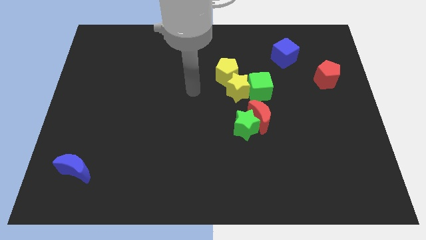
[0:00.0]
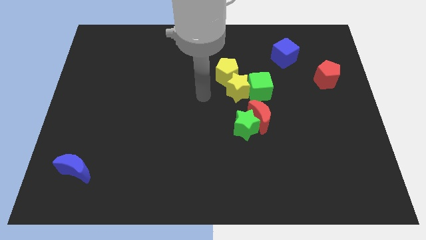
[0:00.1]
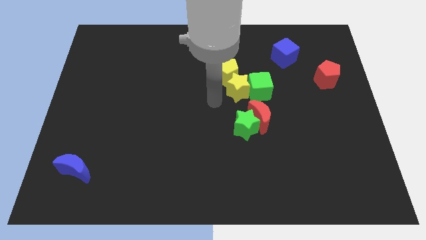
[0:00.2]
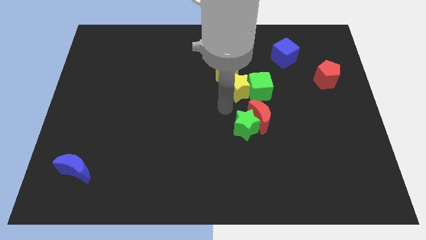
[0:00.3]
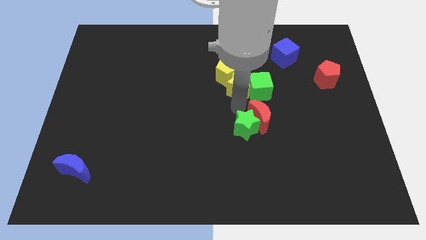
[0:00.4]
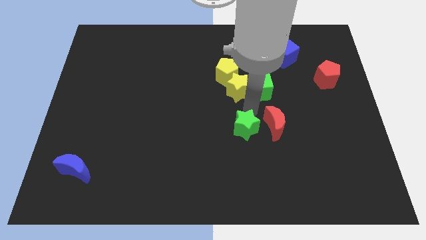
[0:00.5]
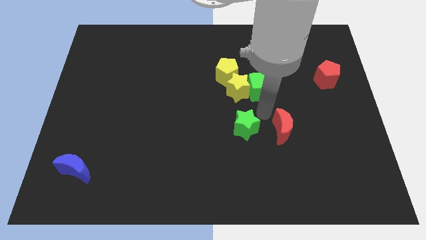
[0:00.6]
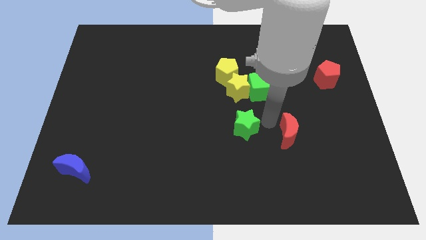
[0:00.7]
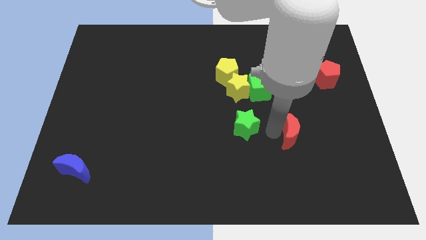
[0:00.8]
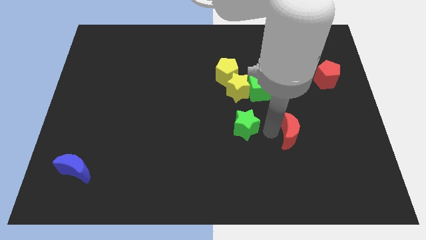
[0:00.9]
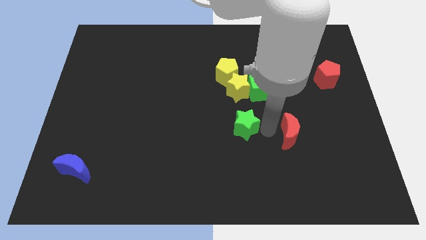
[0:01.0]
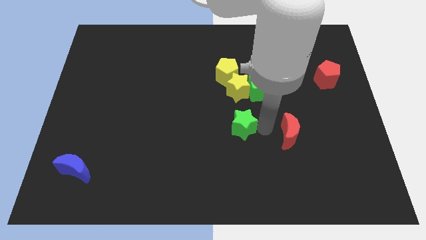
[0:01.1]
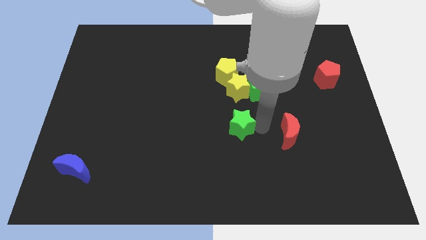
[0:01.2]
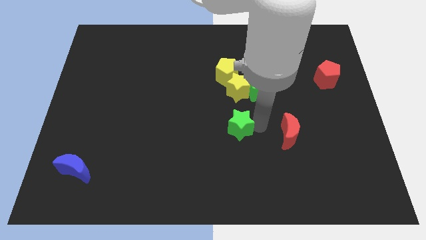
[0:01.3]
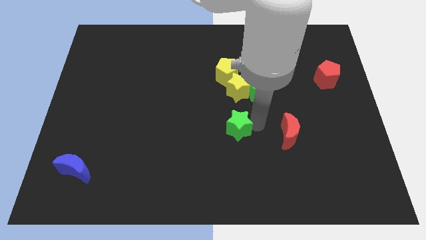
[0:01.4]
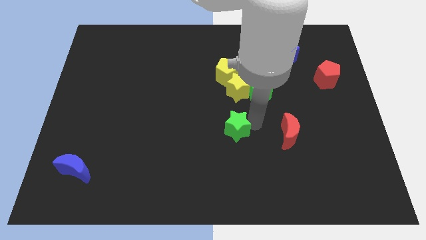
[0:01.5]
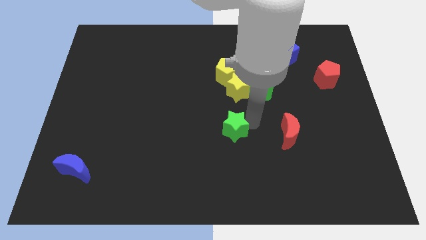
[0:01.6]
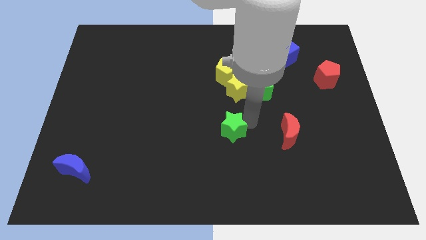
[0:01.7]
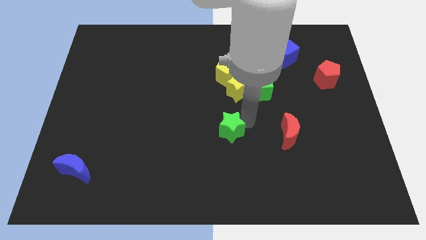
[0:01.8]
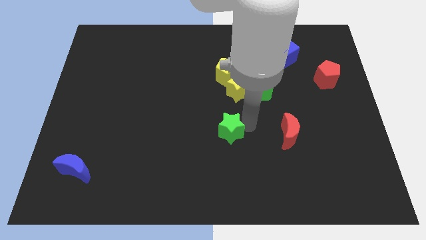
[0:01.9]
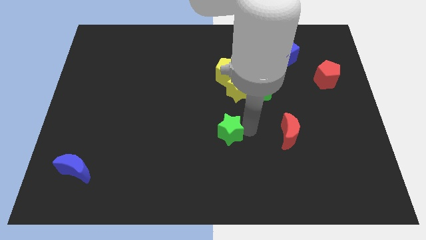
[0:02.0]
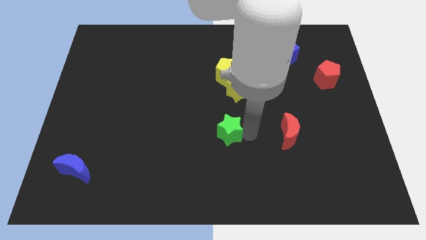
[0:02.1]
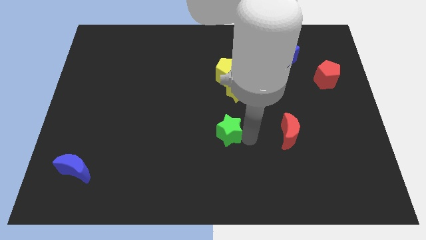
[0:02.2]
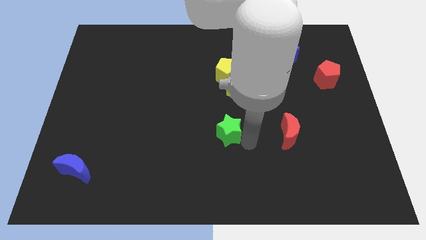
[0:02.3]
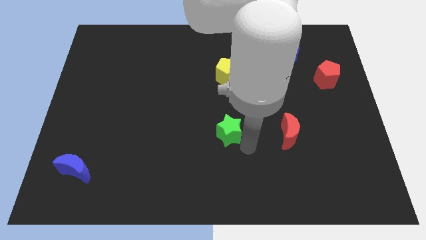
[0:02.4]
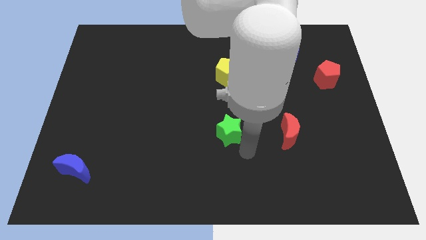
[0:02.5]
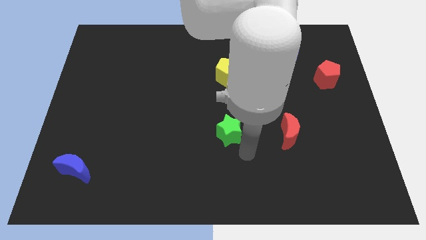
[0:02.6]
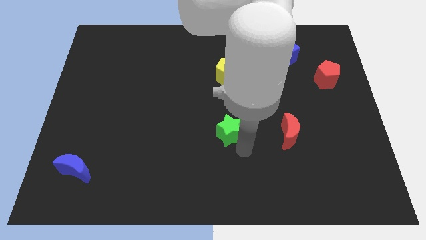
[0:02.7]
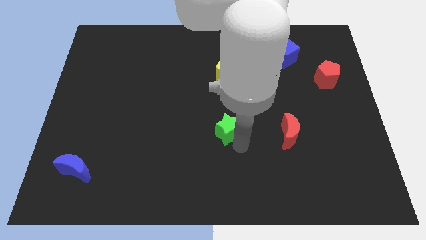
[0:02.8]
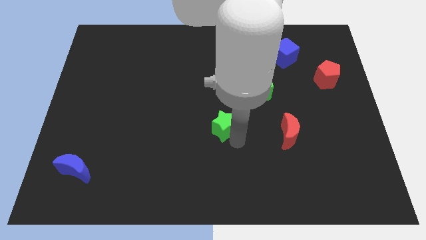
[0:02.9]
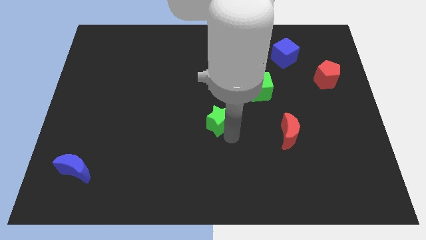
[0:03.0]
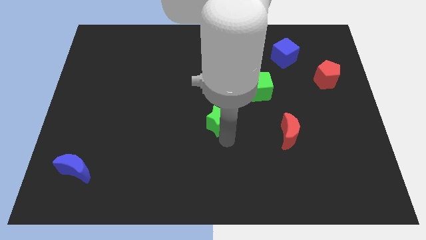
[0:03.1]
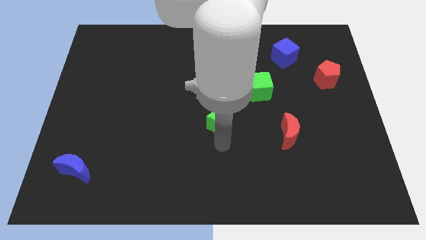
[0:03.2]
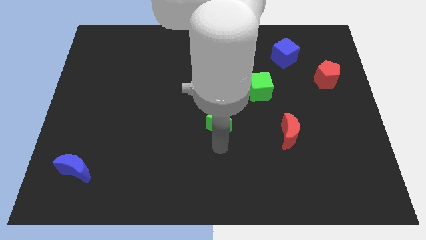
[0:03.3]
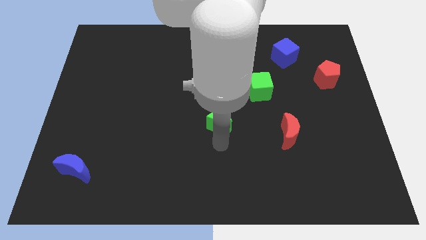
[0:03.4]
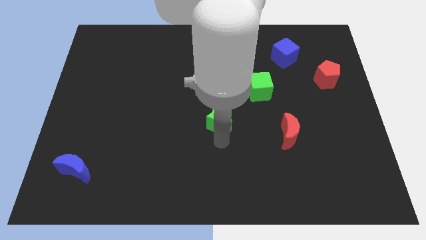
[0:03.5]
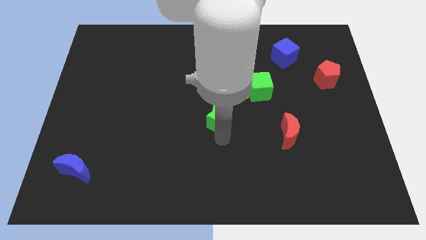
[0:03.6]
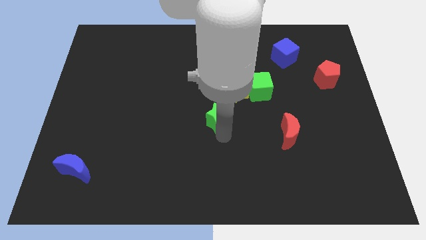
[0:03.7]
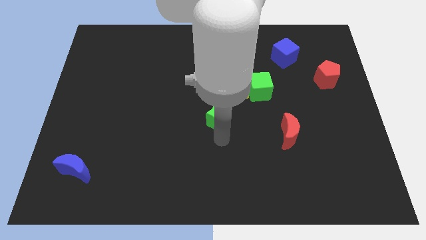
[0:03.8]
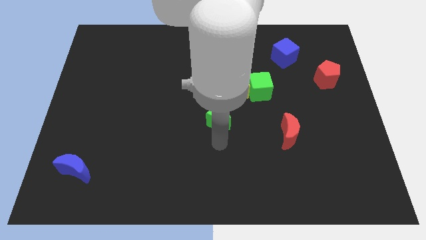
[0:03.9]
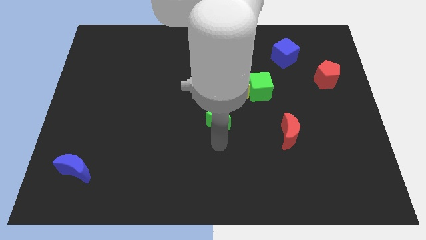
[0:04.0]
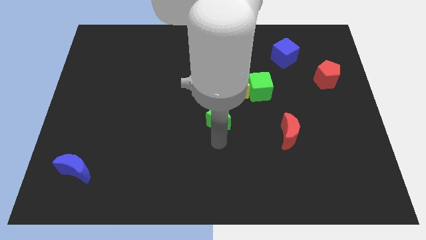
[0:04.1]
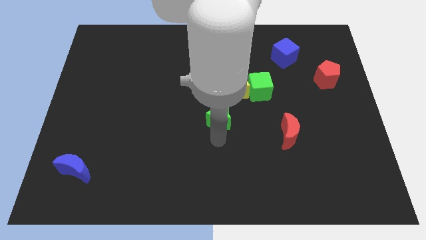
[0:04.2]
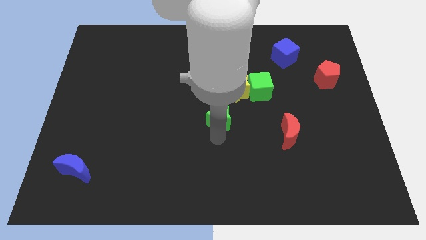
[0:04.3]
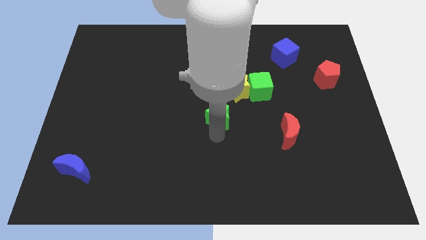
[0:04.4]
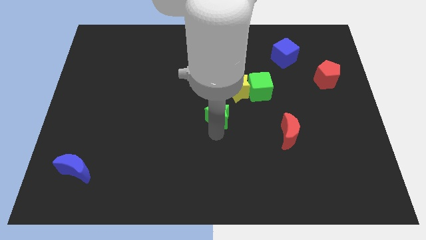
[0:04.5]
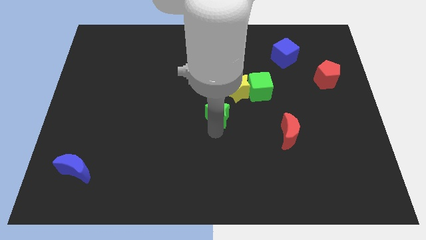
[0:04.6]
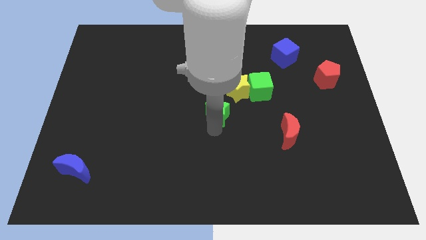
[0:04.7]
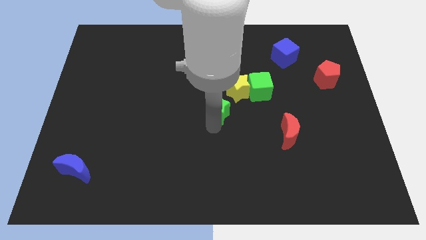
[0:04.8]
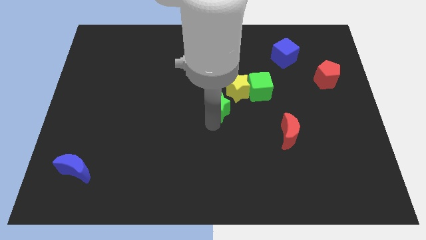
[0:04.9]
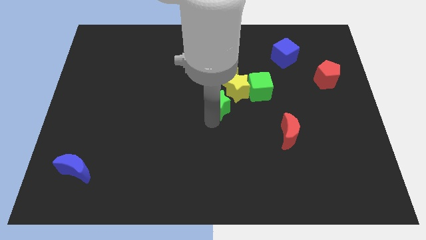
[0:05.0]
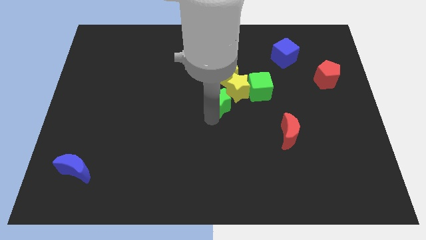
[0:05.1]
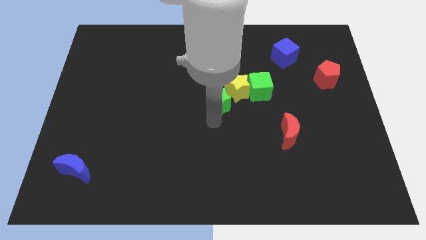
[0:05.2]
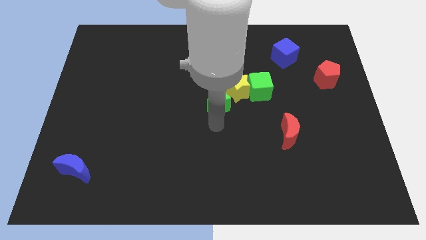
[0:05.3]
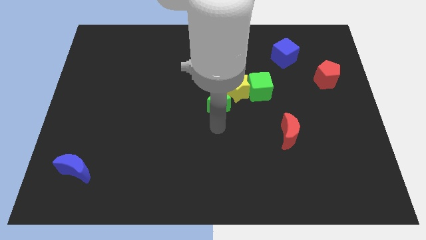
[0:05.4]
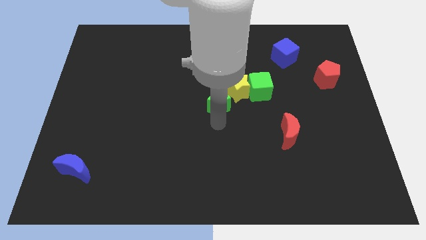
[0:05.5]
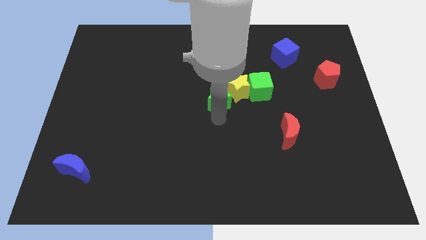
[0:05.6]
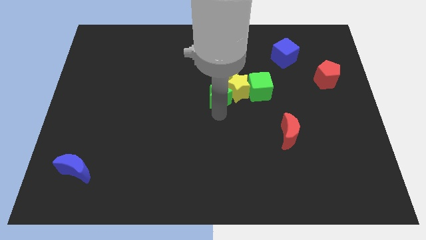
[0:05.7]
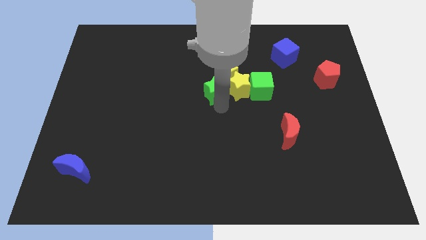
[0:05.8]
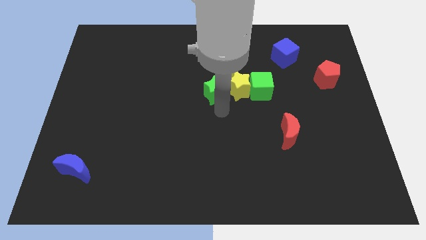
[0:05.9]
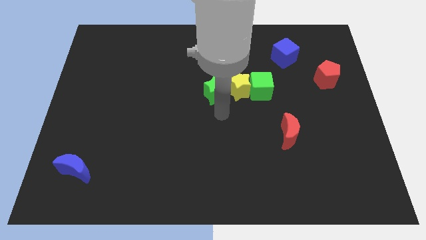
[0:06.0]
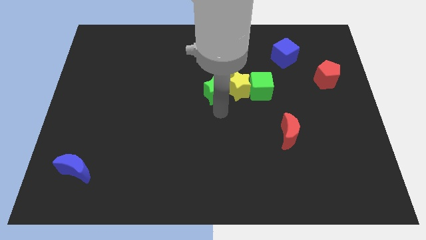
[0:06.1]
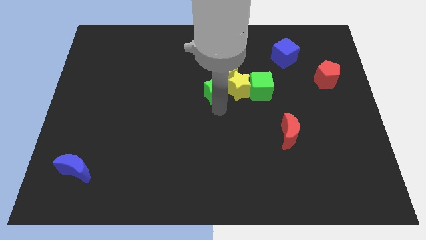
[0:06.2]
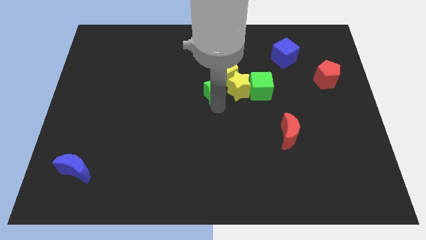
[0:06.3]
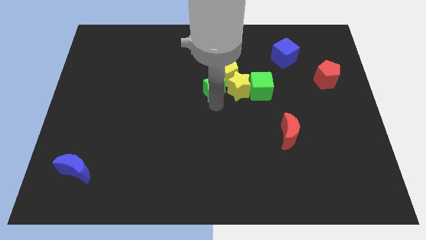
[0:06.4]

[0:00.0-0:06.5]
push the green star towards the yellow pentagon
